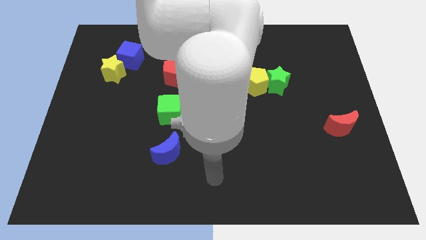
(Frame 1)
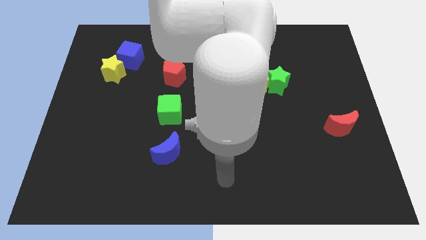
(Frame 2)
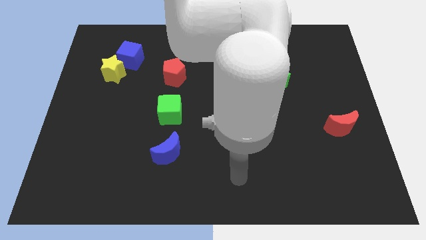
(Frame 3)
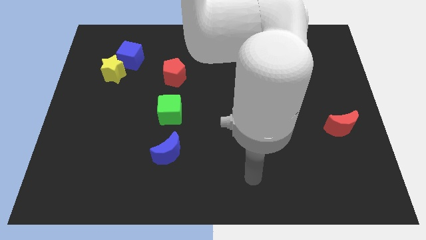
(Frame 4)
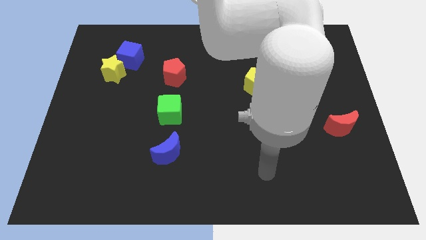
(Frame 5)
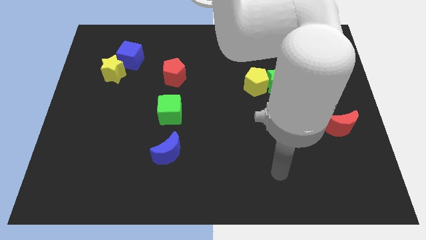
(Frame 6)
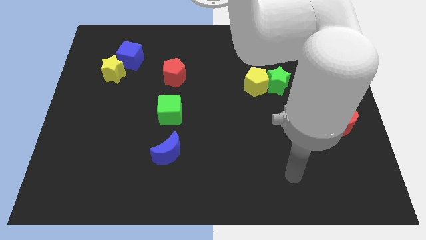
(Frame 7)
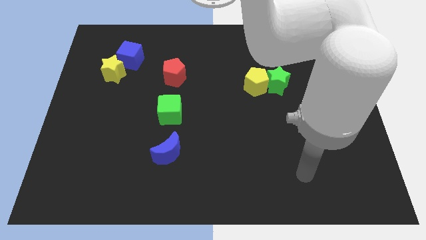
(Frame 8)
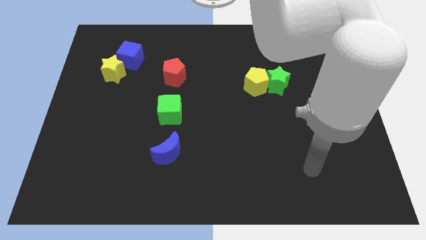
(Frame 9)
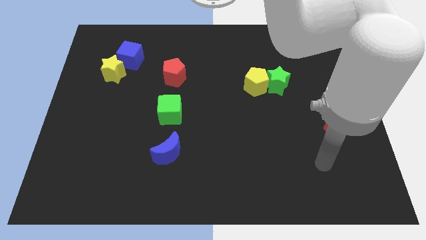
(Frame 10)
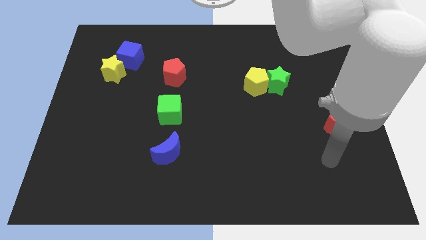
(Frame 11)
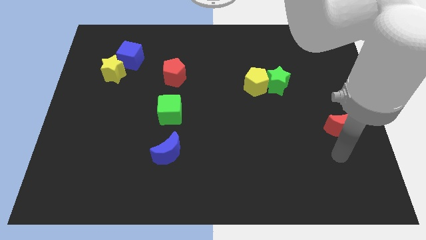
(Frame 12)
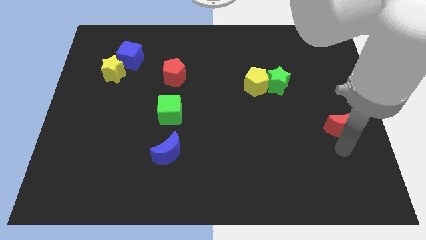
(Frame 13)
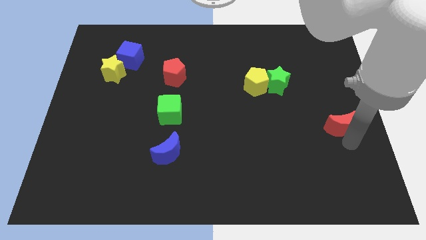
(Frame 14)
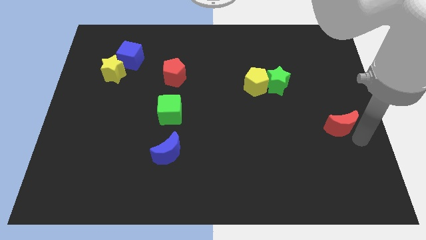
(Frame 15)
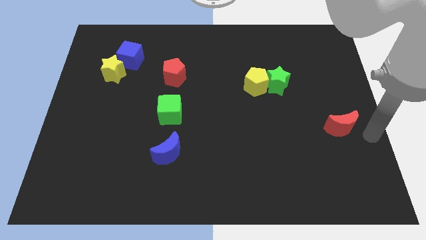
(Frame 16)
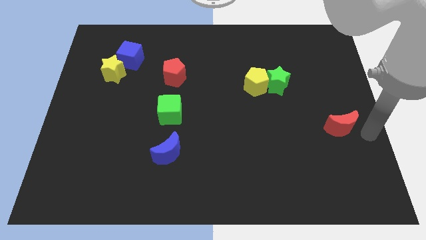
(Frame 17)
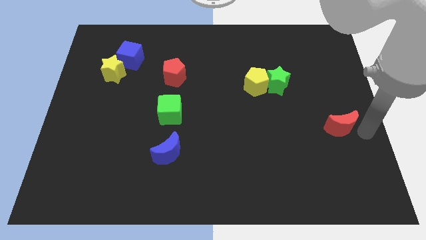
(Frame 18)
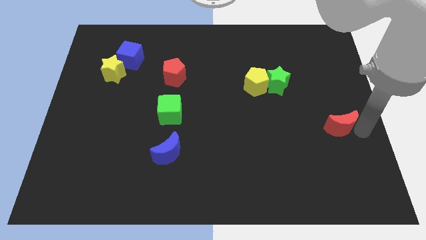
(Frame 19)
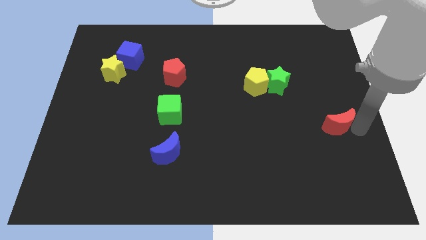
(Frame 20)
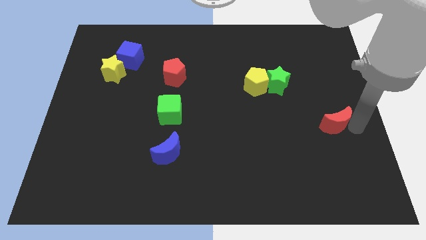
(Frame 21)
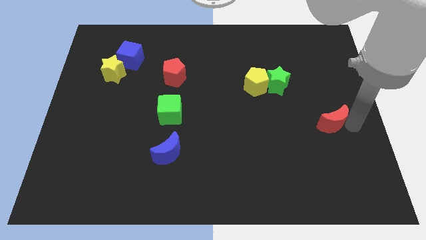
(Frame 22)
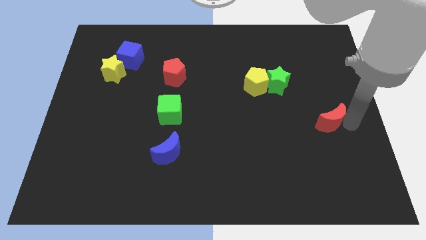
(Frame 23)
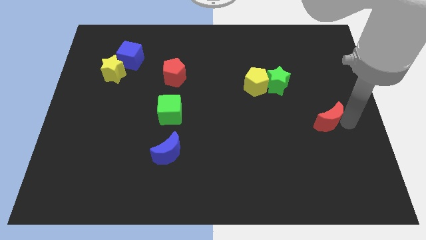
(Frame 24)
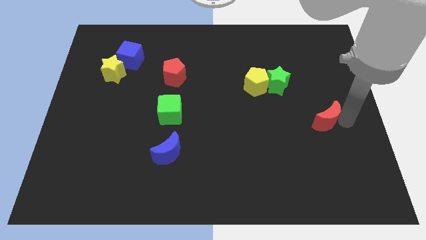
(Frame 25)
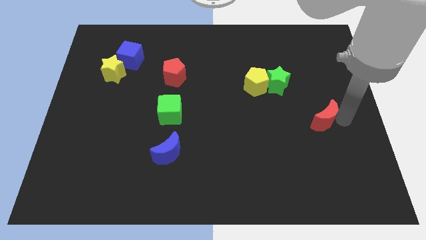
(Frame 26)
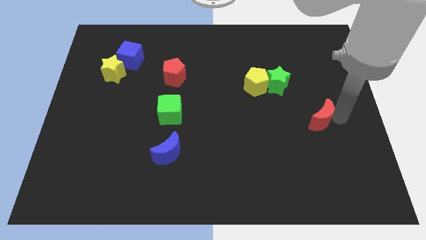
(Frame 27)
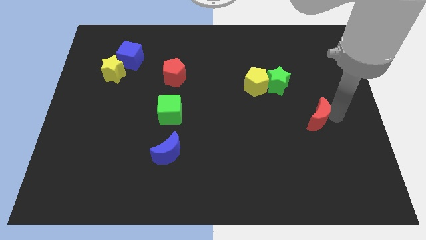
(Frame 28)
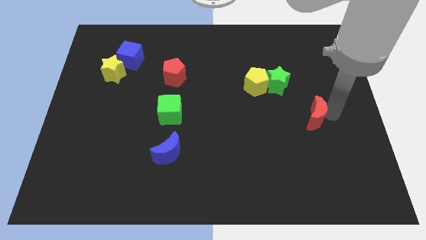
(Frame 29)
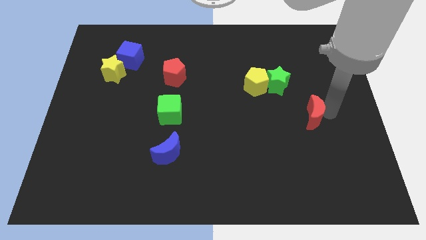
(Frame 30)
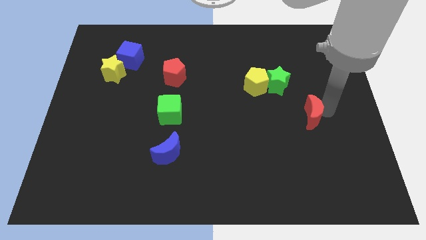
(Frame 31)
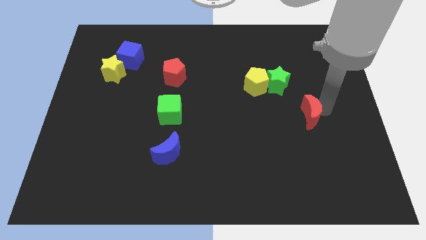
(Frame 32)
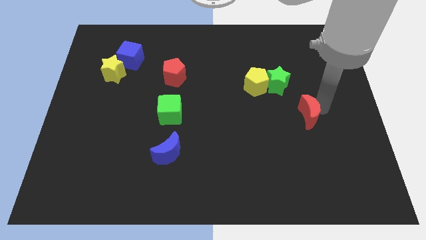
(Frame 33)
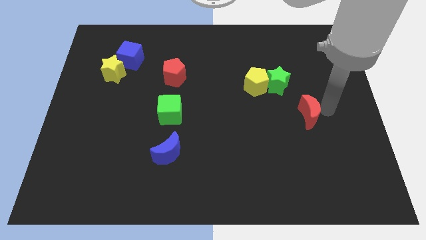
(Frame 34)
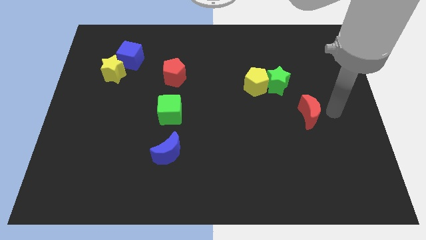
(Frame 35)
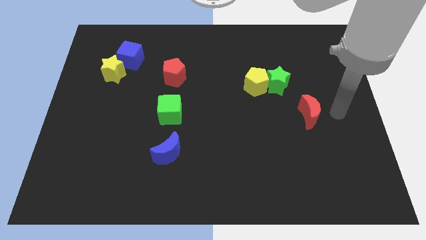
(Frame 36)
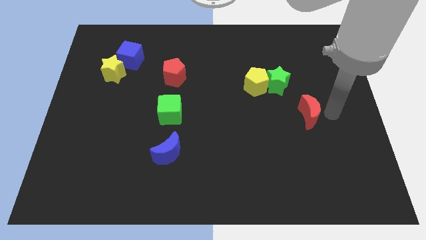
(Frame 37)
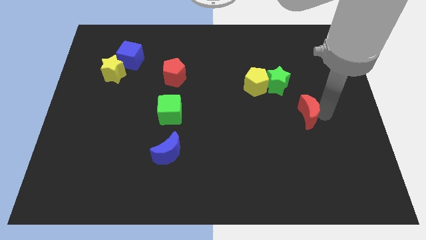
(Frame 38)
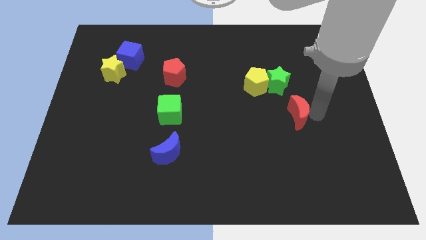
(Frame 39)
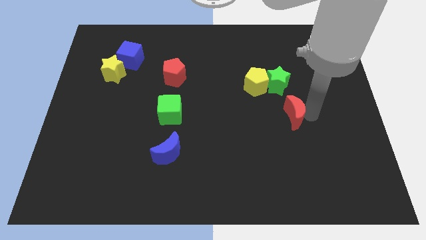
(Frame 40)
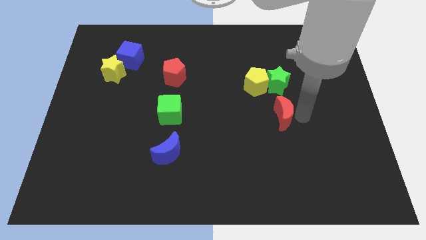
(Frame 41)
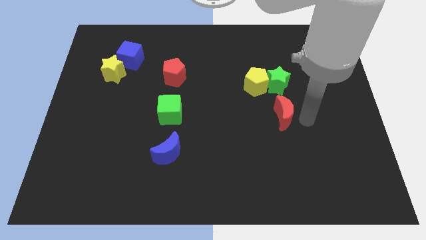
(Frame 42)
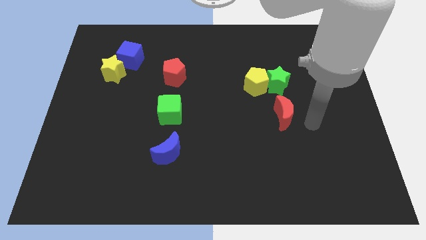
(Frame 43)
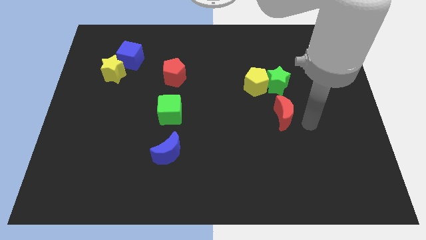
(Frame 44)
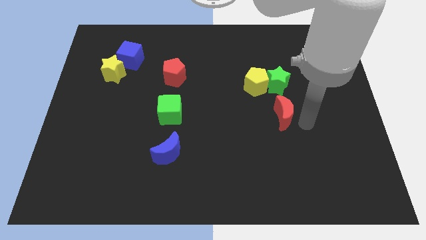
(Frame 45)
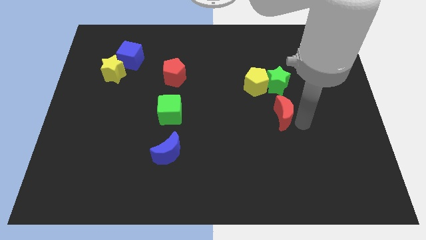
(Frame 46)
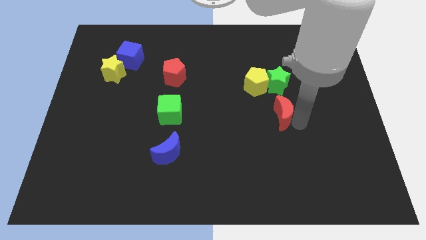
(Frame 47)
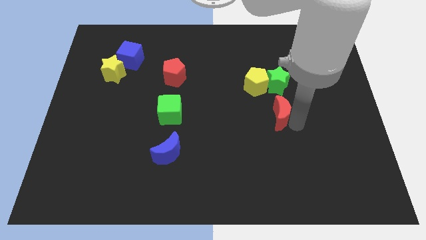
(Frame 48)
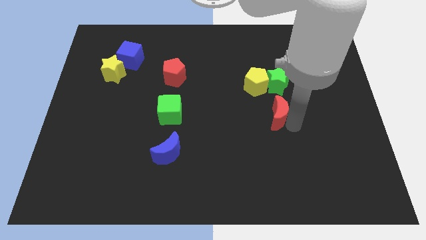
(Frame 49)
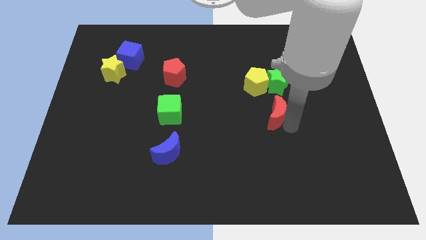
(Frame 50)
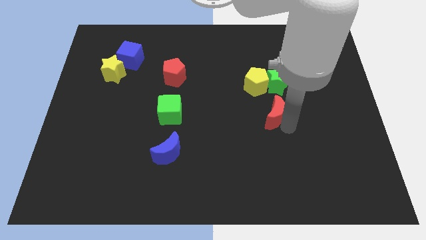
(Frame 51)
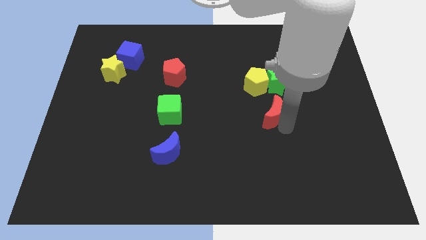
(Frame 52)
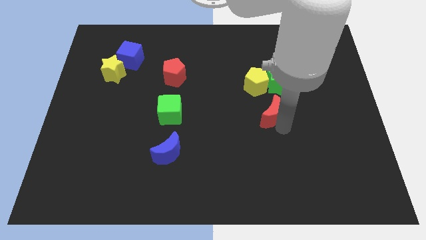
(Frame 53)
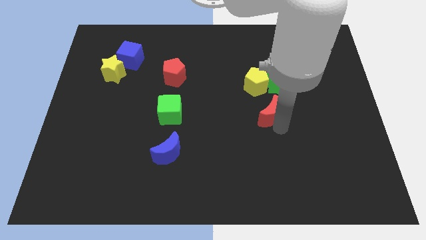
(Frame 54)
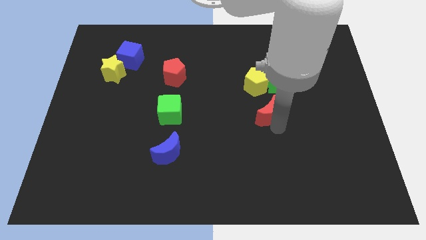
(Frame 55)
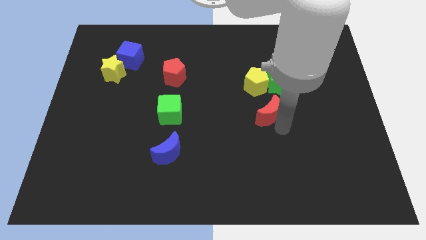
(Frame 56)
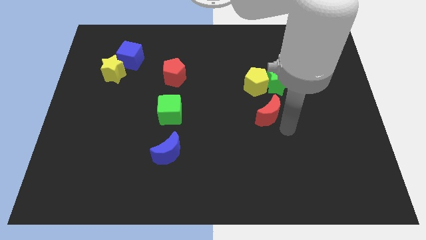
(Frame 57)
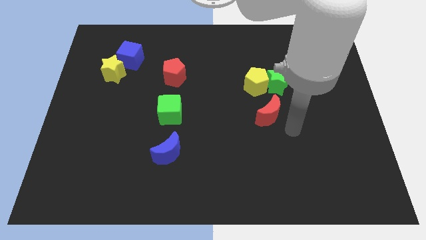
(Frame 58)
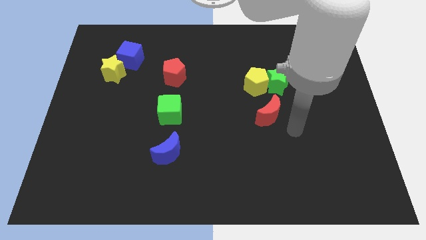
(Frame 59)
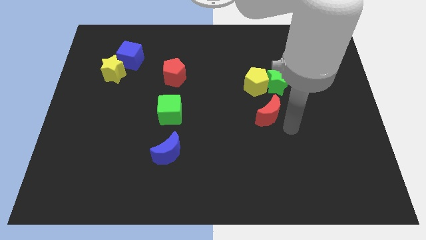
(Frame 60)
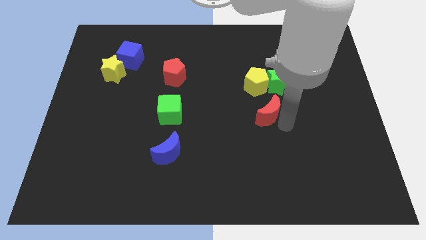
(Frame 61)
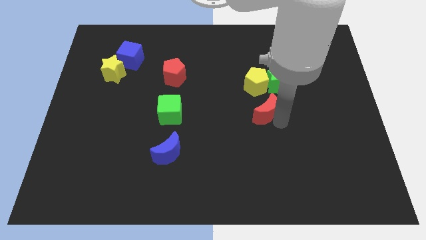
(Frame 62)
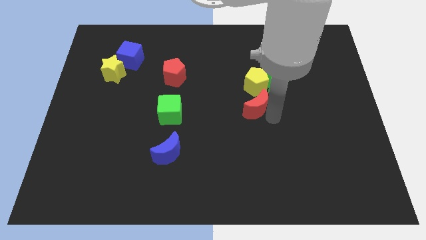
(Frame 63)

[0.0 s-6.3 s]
move the red moon to the center of the board
